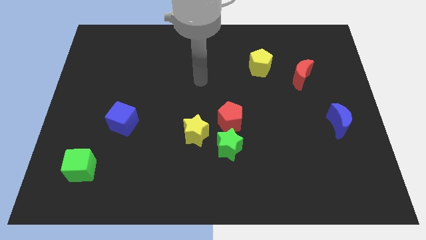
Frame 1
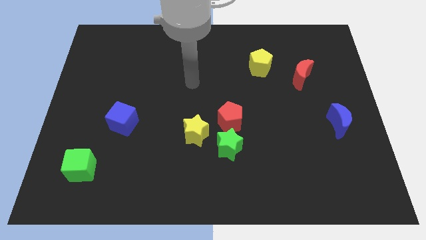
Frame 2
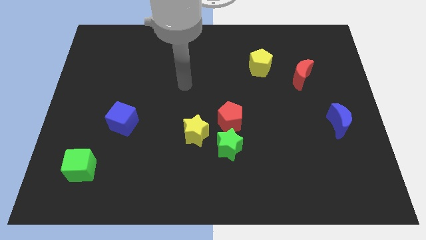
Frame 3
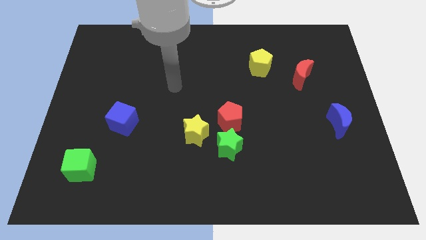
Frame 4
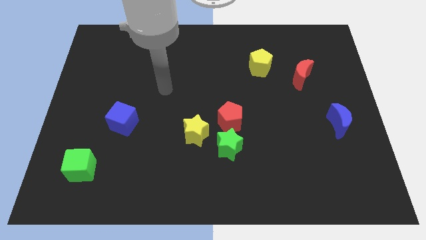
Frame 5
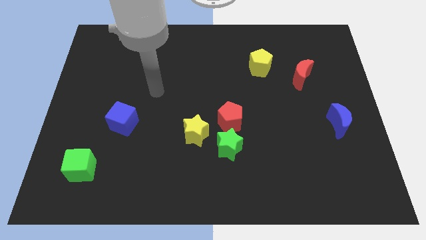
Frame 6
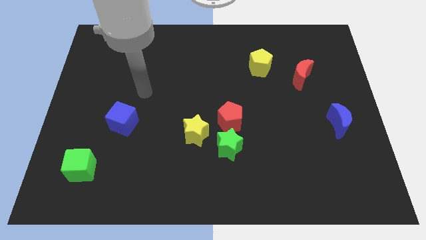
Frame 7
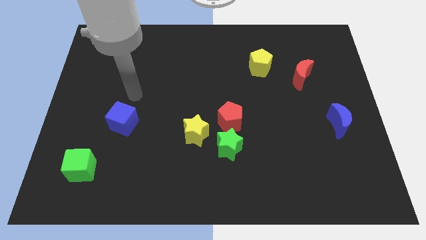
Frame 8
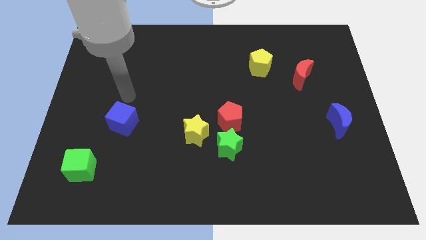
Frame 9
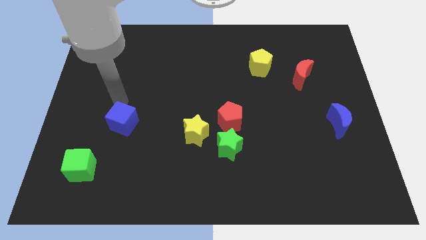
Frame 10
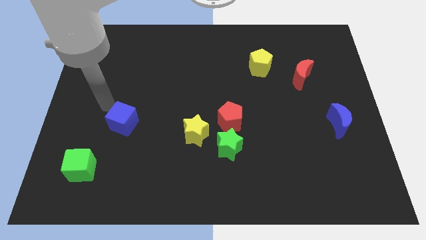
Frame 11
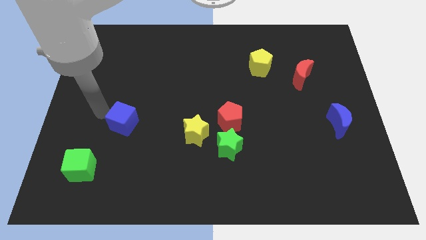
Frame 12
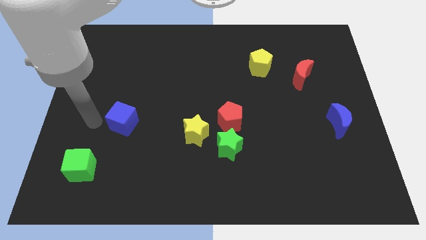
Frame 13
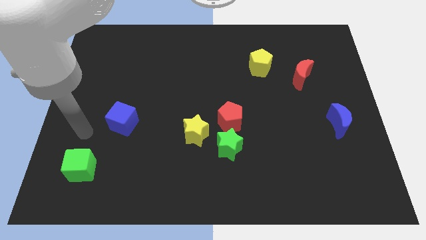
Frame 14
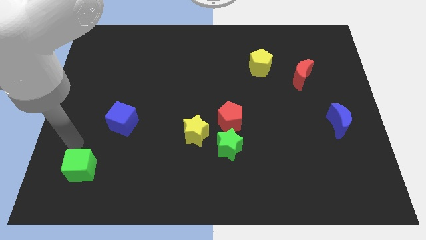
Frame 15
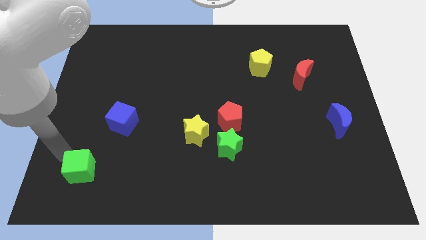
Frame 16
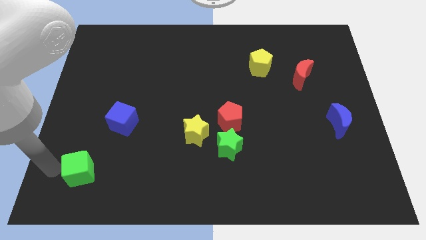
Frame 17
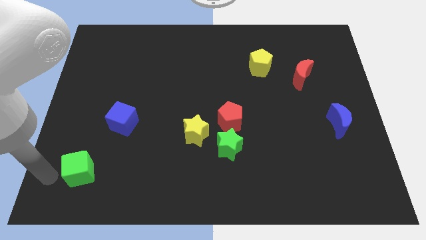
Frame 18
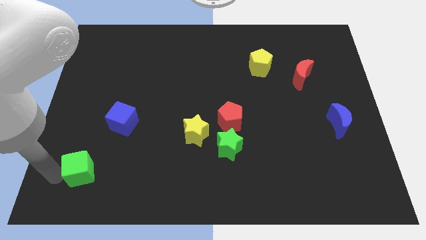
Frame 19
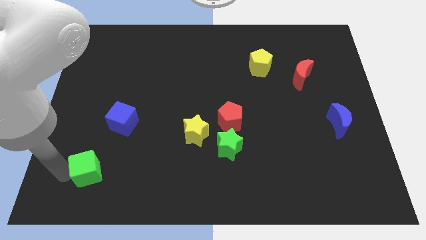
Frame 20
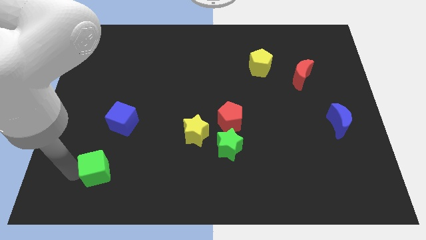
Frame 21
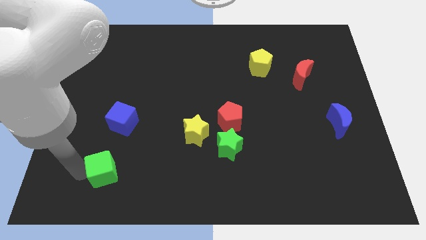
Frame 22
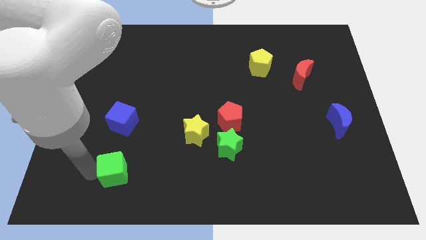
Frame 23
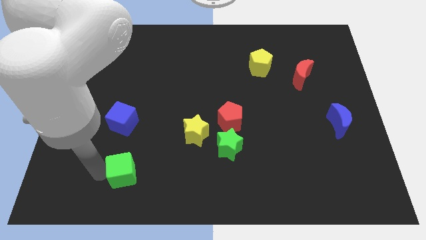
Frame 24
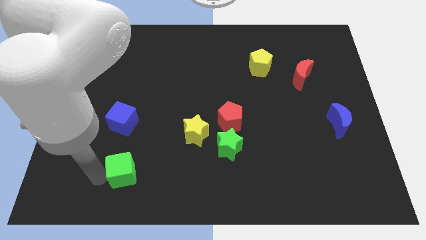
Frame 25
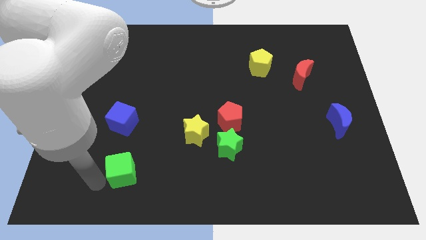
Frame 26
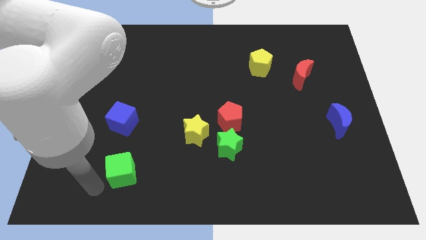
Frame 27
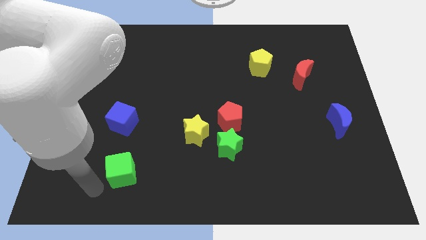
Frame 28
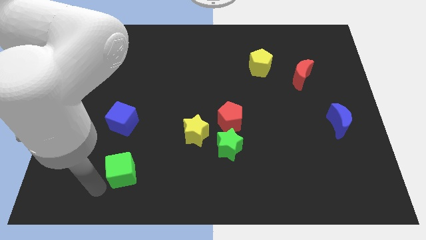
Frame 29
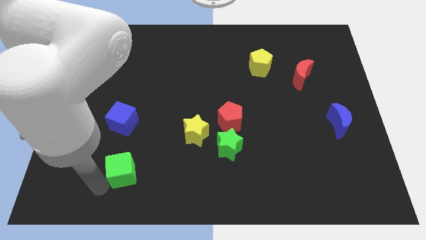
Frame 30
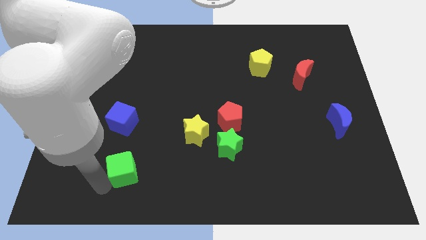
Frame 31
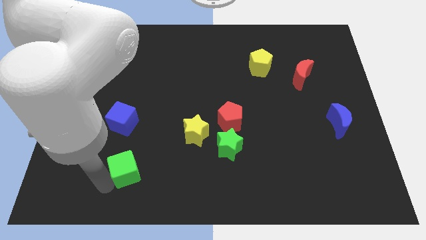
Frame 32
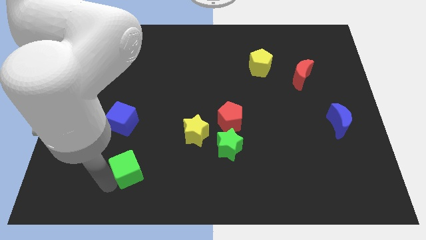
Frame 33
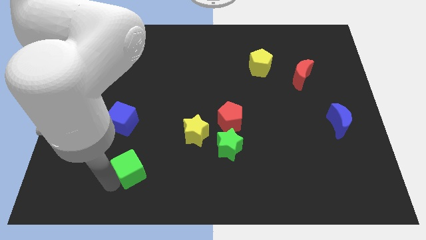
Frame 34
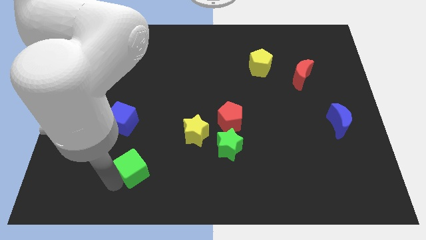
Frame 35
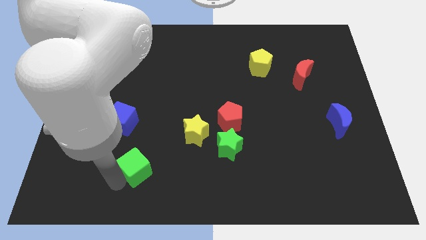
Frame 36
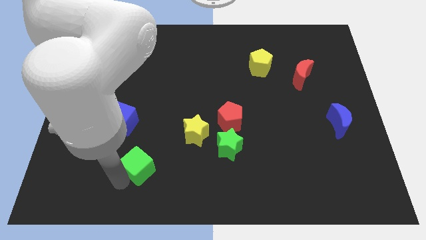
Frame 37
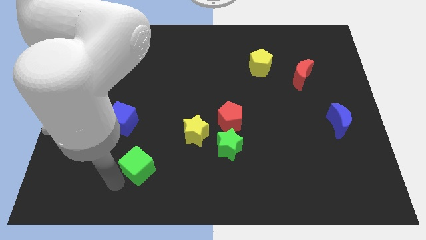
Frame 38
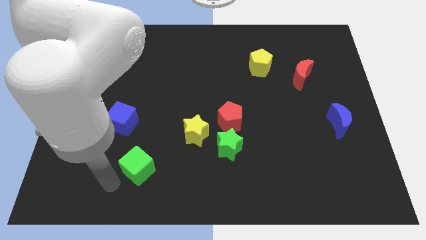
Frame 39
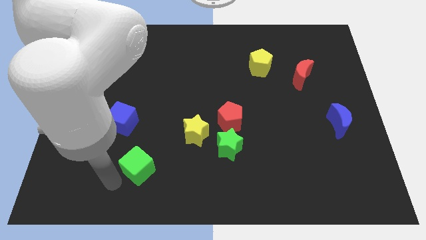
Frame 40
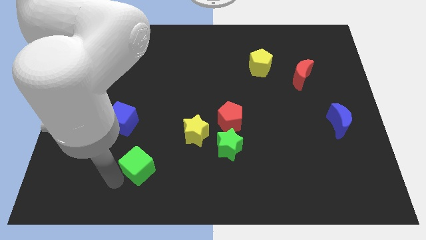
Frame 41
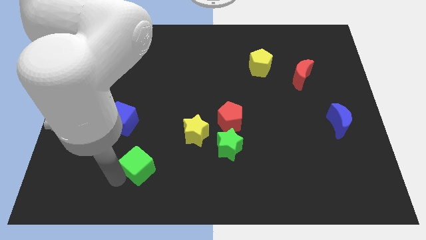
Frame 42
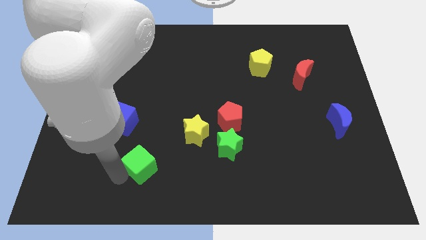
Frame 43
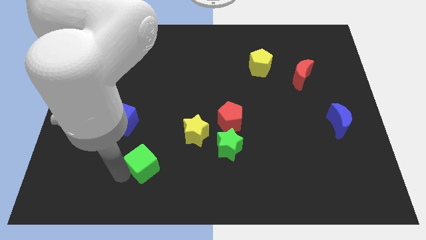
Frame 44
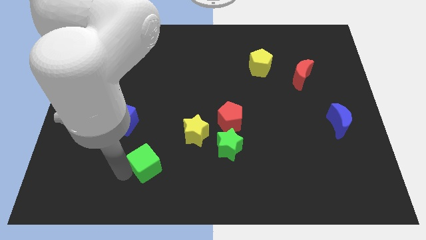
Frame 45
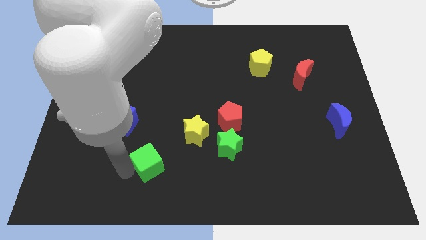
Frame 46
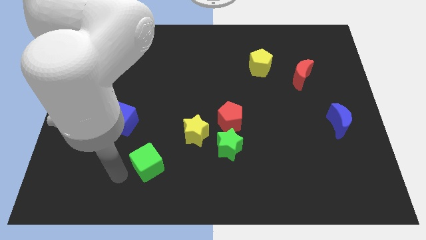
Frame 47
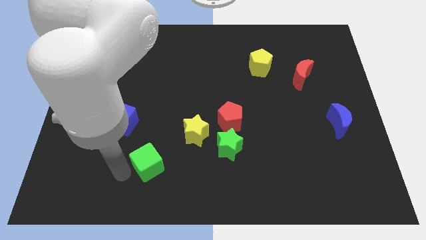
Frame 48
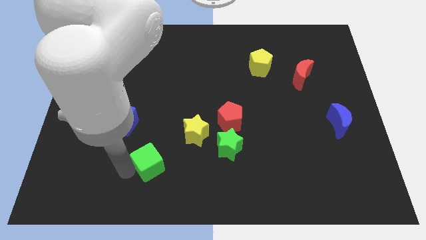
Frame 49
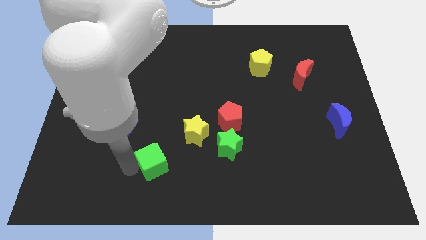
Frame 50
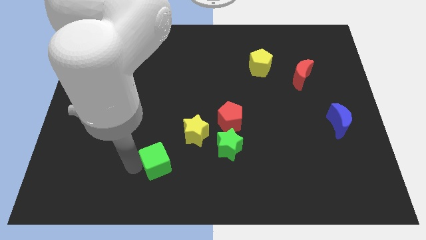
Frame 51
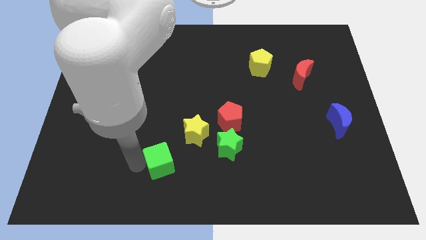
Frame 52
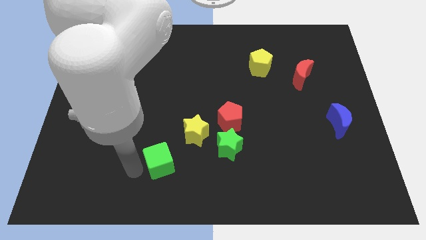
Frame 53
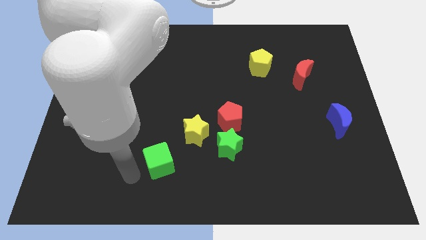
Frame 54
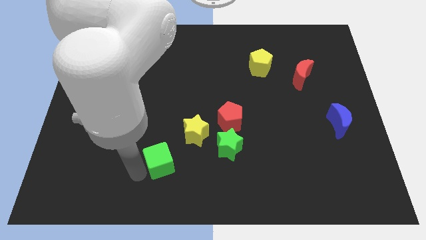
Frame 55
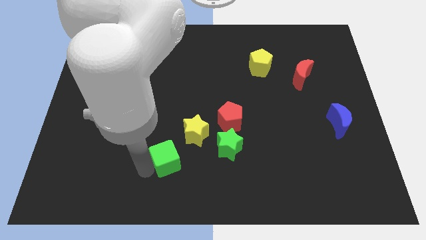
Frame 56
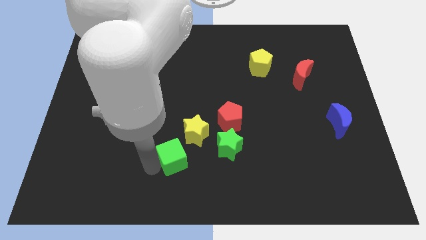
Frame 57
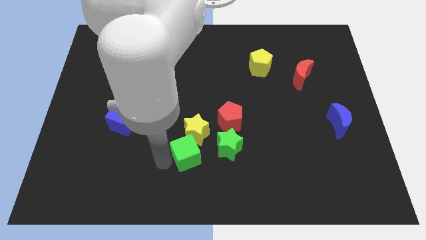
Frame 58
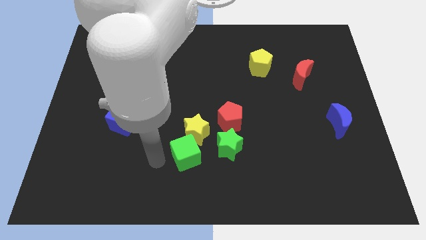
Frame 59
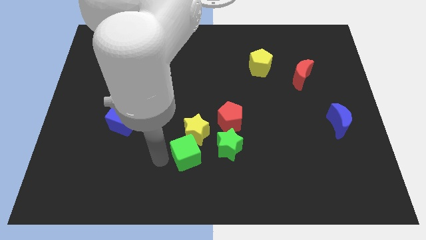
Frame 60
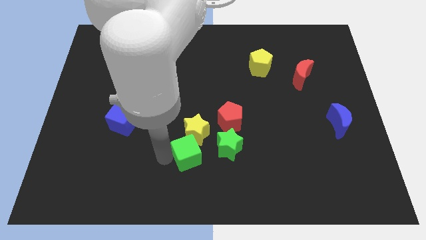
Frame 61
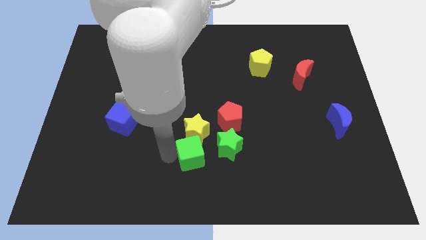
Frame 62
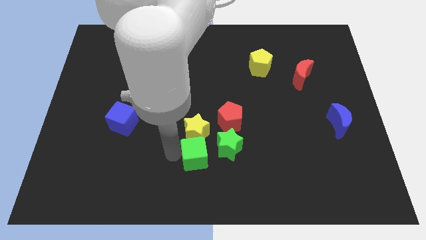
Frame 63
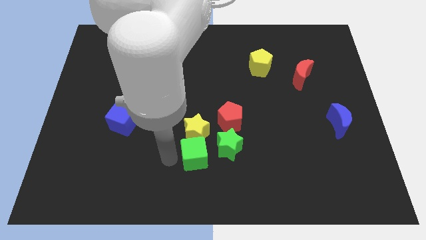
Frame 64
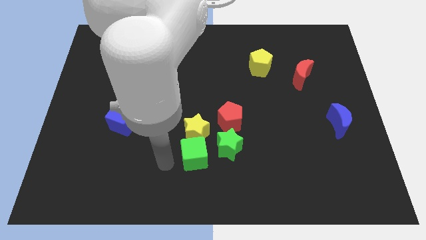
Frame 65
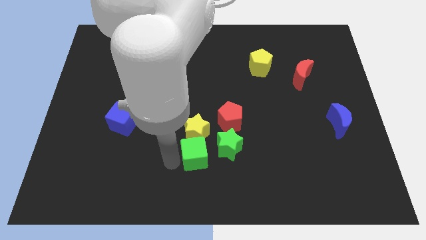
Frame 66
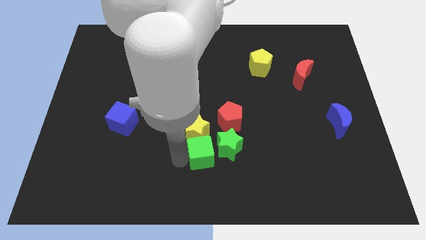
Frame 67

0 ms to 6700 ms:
push the green cube next to the green star
